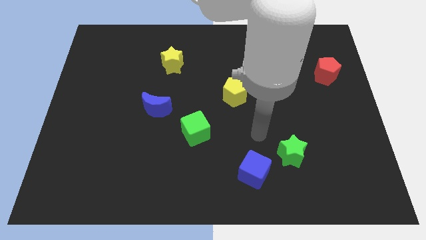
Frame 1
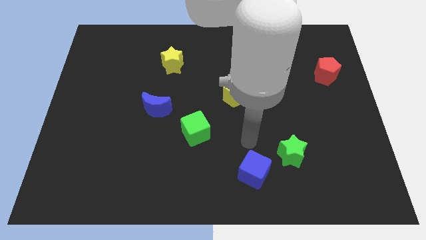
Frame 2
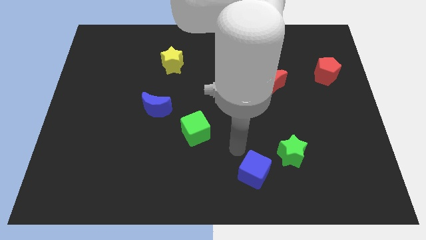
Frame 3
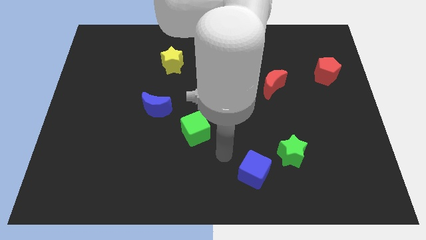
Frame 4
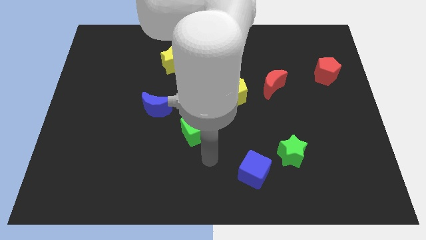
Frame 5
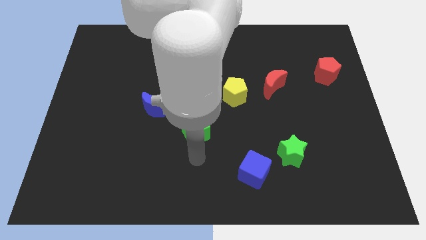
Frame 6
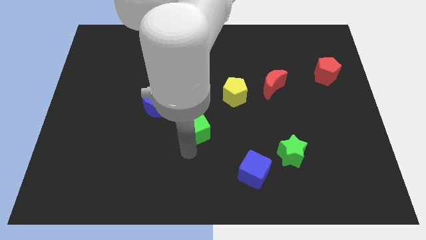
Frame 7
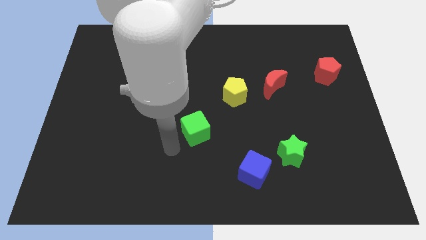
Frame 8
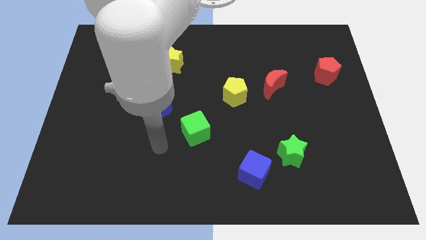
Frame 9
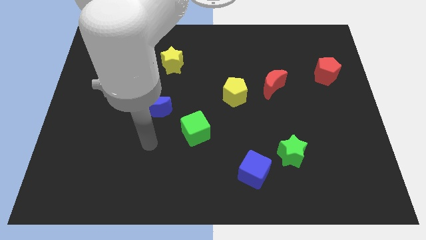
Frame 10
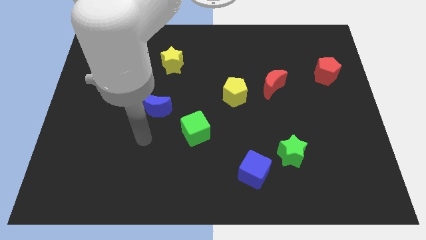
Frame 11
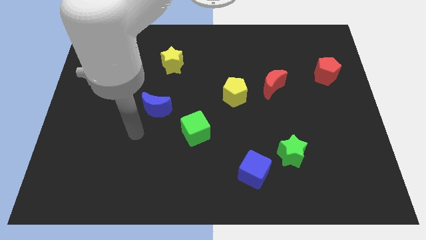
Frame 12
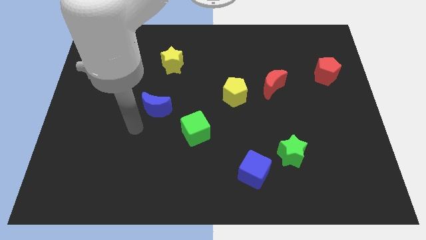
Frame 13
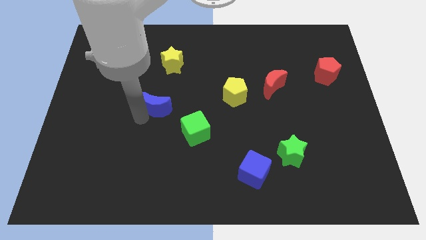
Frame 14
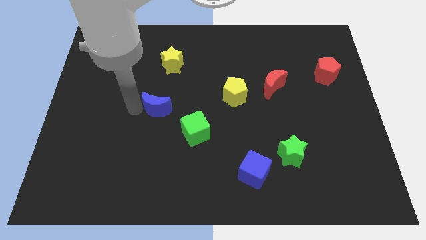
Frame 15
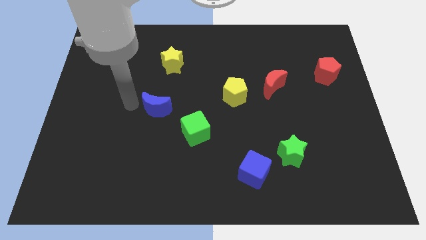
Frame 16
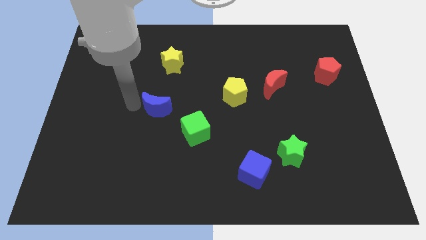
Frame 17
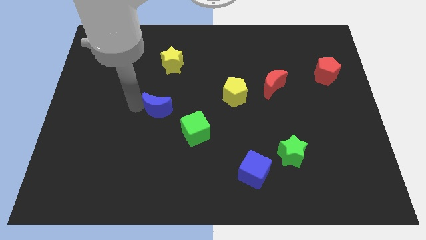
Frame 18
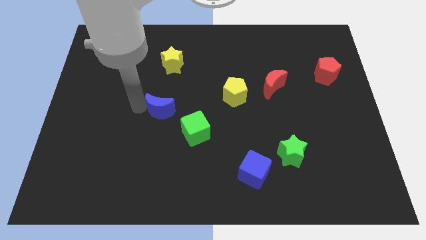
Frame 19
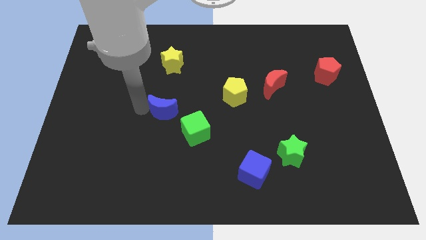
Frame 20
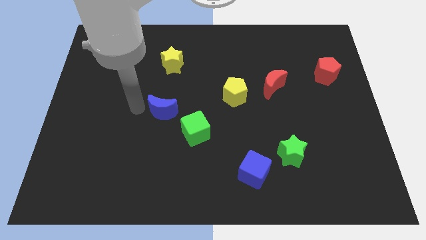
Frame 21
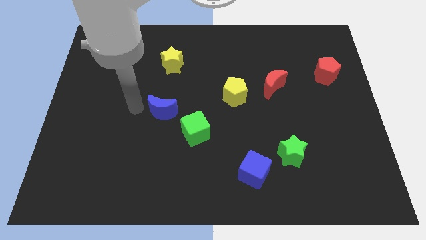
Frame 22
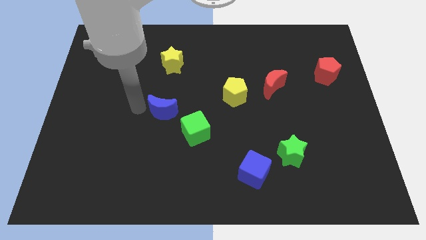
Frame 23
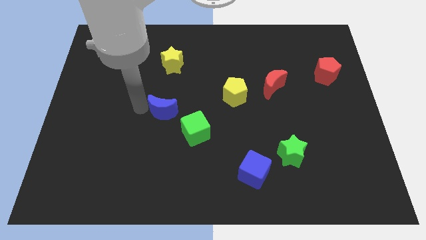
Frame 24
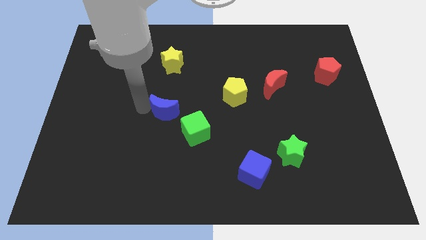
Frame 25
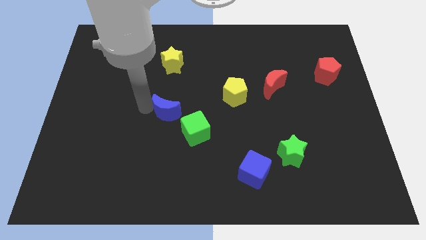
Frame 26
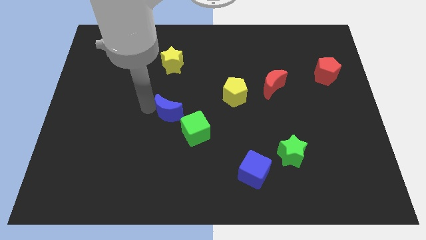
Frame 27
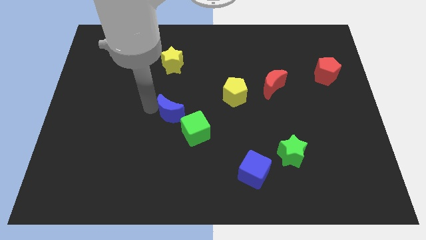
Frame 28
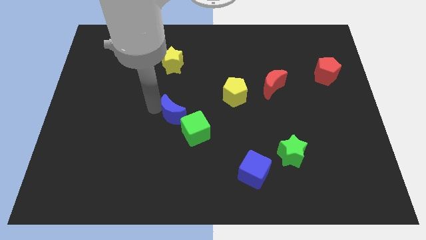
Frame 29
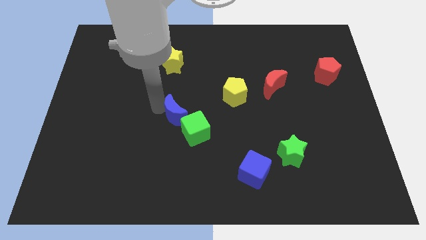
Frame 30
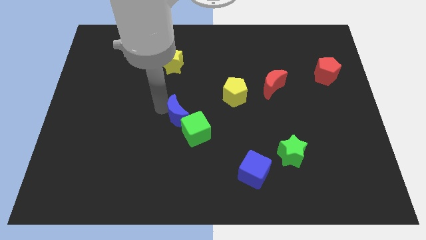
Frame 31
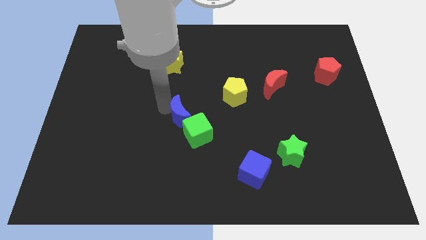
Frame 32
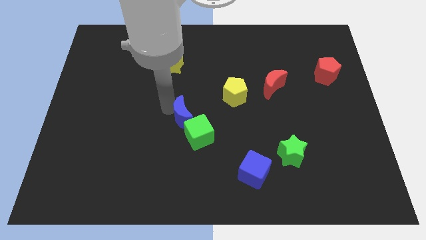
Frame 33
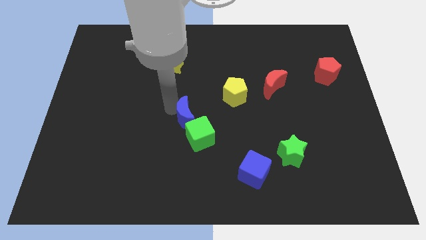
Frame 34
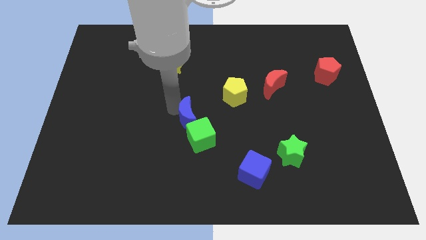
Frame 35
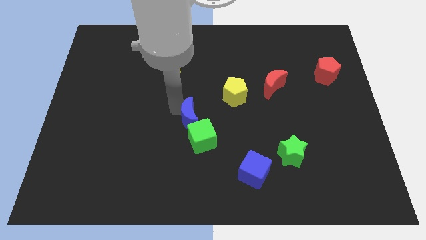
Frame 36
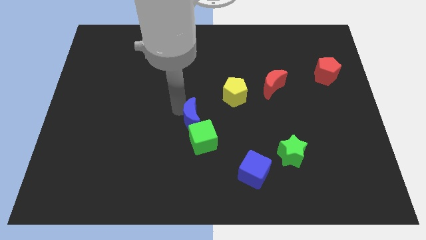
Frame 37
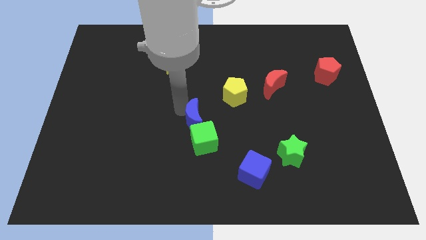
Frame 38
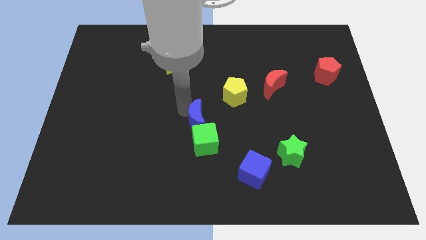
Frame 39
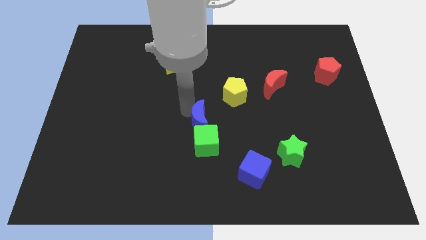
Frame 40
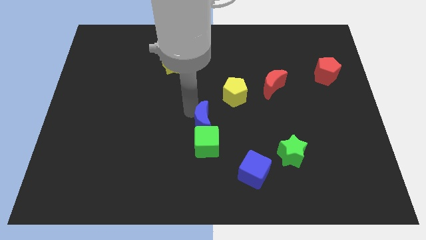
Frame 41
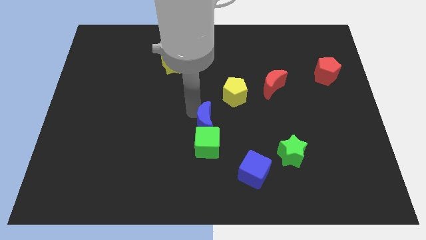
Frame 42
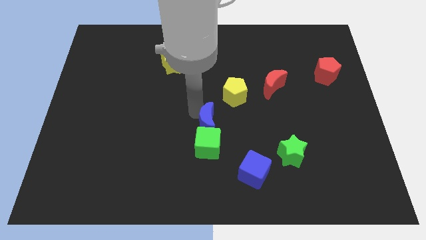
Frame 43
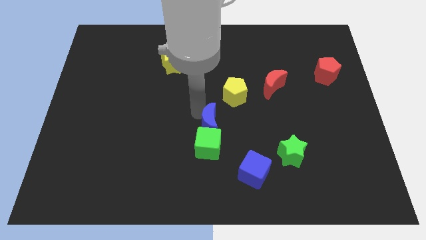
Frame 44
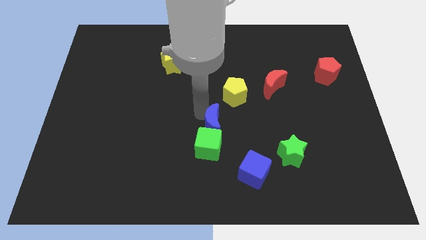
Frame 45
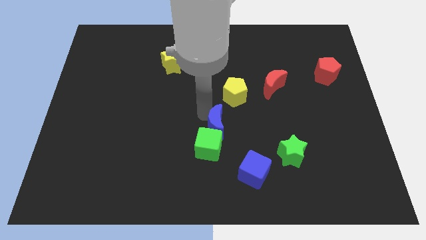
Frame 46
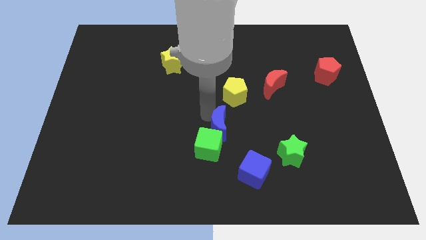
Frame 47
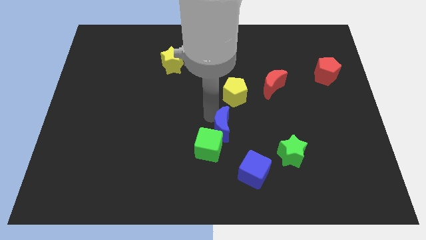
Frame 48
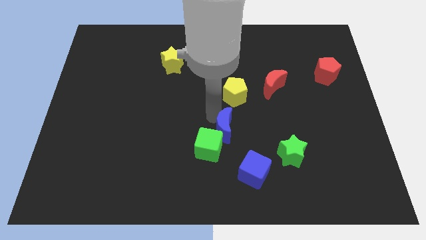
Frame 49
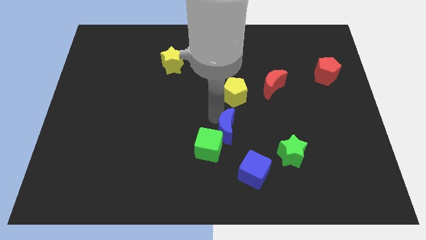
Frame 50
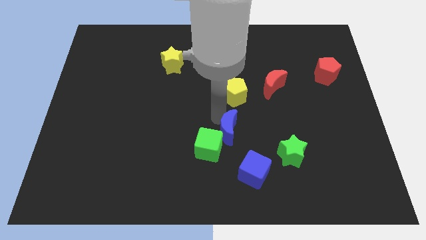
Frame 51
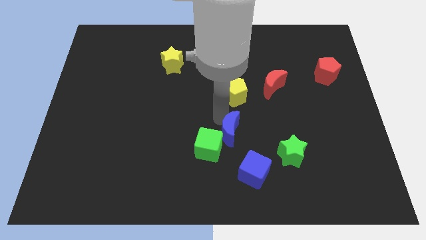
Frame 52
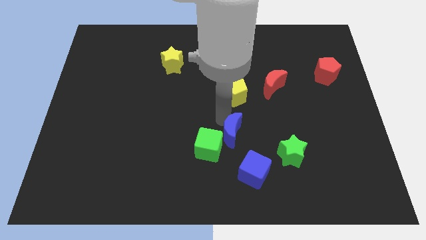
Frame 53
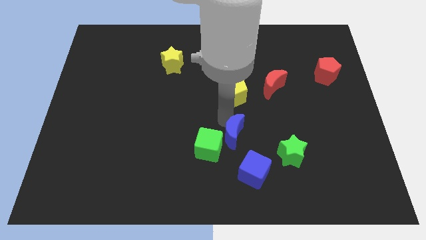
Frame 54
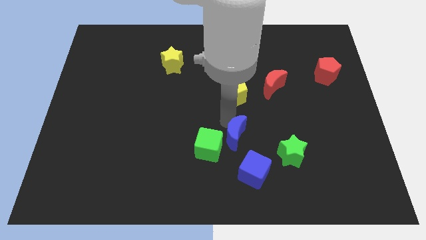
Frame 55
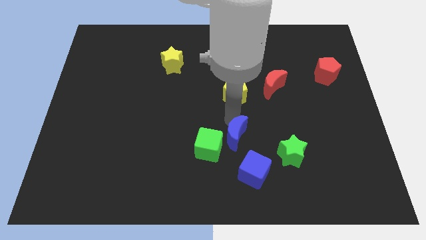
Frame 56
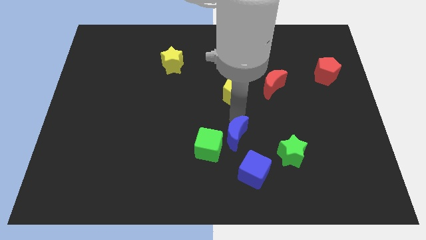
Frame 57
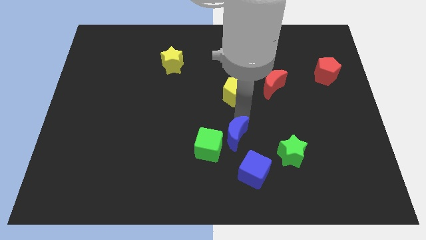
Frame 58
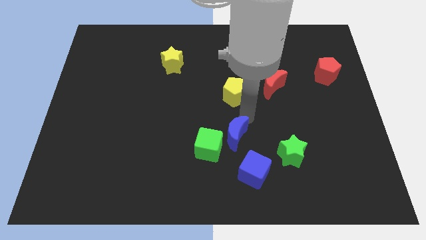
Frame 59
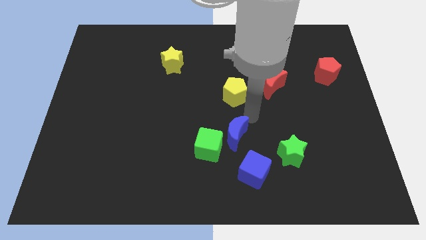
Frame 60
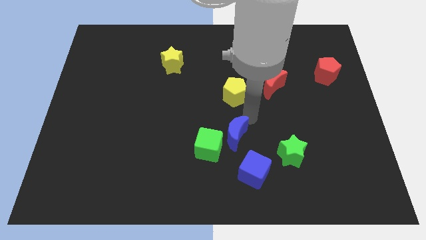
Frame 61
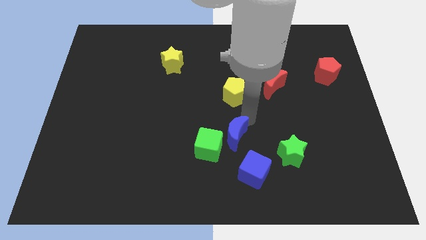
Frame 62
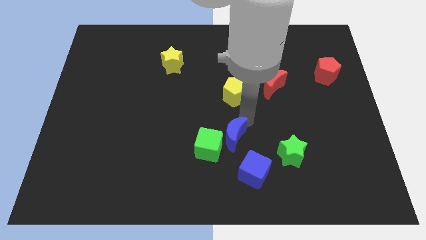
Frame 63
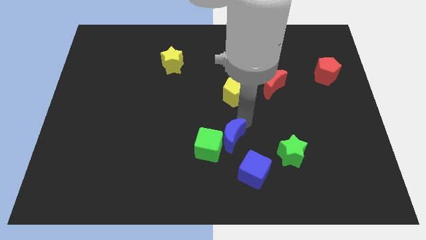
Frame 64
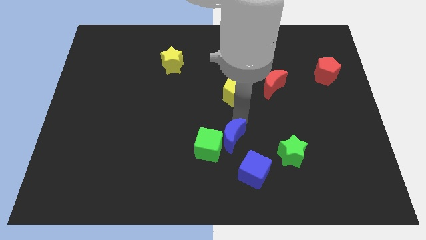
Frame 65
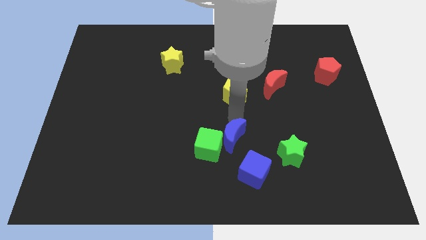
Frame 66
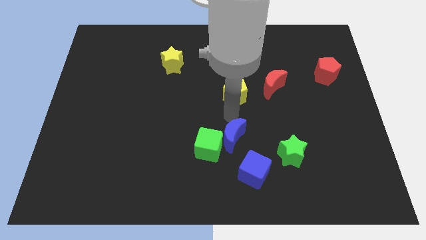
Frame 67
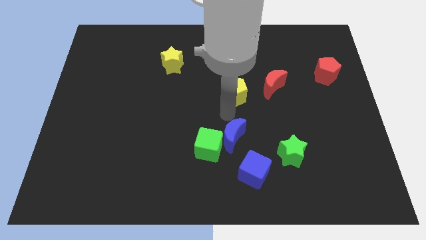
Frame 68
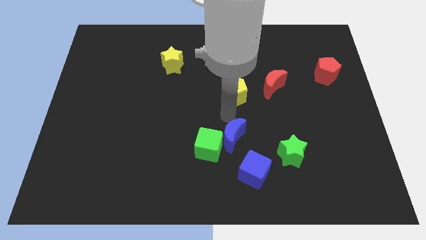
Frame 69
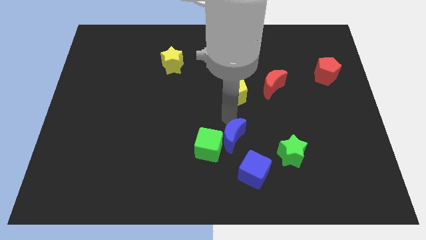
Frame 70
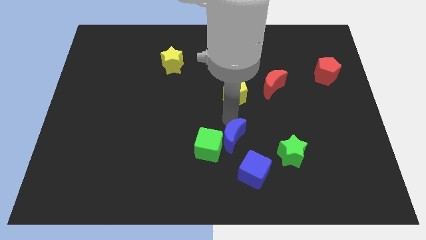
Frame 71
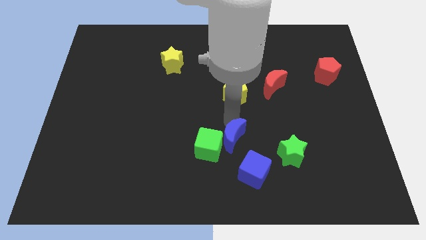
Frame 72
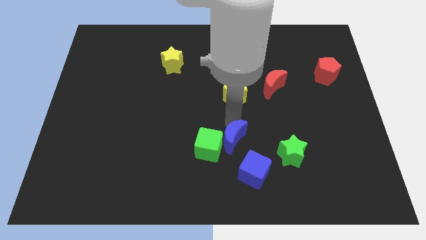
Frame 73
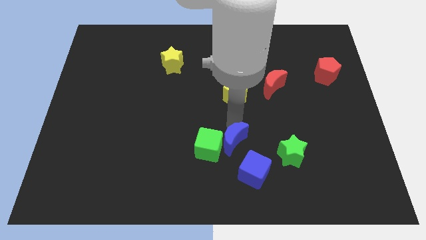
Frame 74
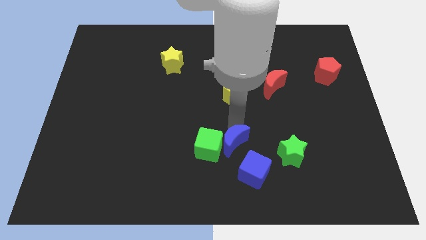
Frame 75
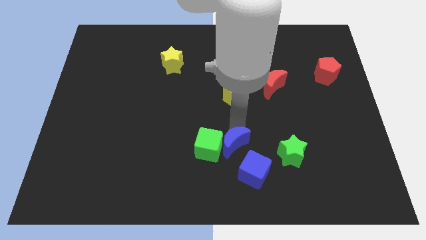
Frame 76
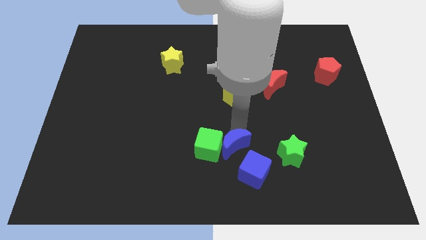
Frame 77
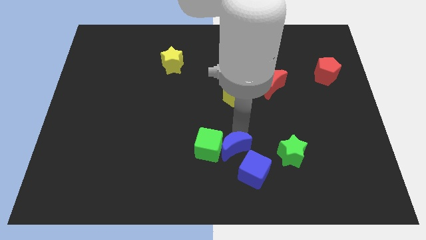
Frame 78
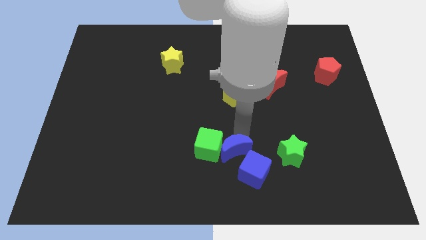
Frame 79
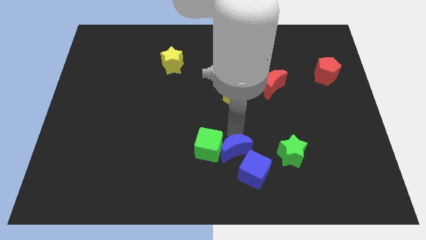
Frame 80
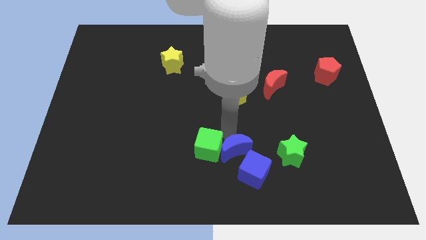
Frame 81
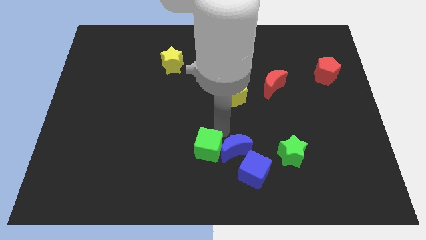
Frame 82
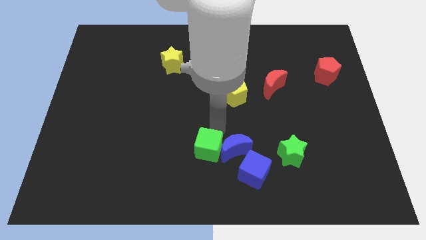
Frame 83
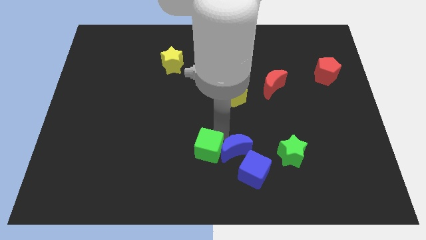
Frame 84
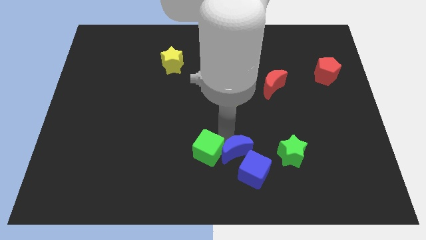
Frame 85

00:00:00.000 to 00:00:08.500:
move the blue moon to the blue cube
